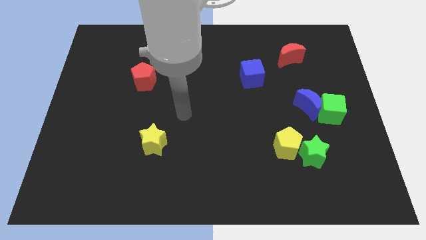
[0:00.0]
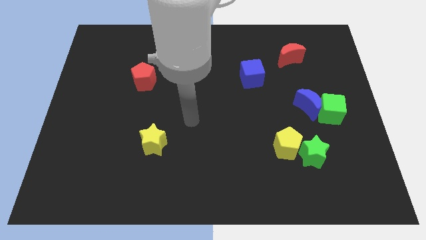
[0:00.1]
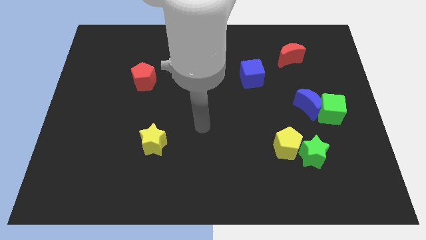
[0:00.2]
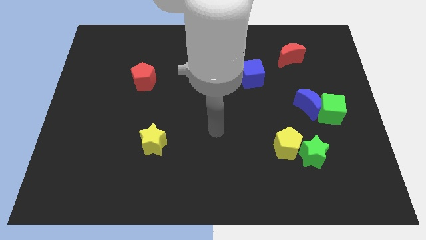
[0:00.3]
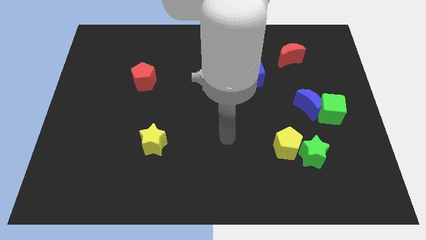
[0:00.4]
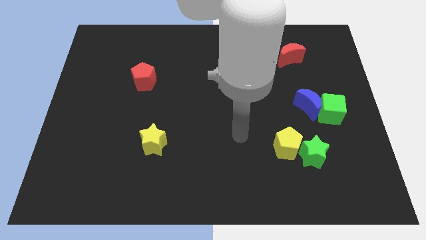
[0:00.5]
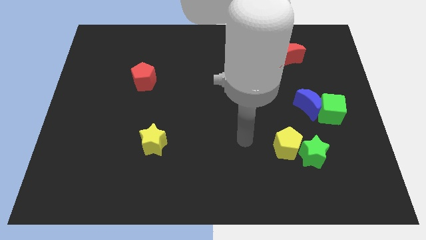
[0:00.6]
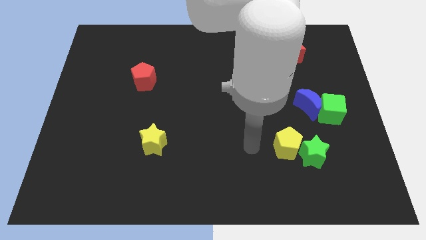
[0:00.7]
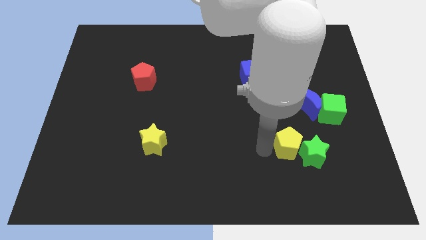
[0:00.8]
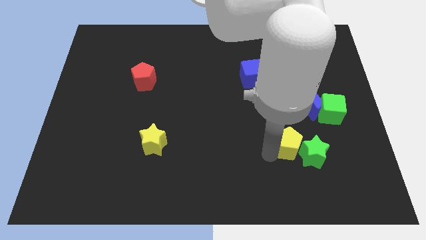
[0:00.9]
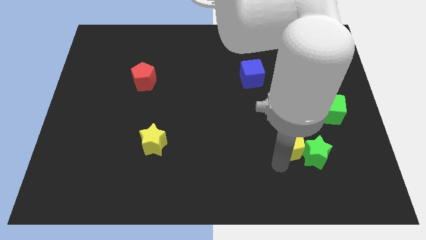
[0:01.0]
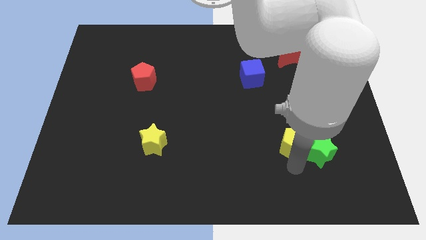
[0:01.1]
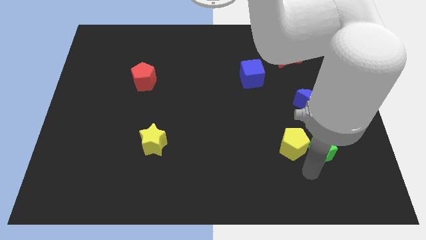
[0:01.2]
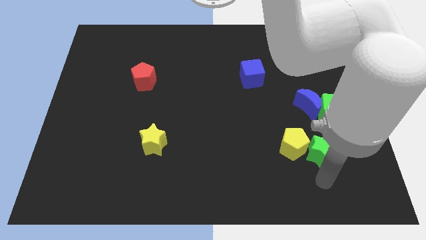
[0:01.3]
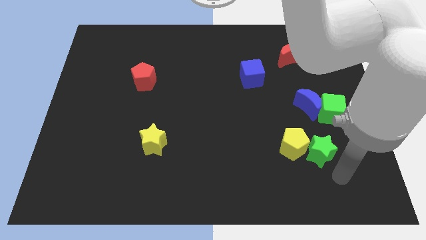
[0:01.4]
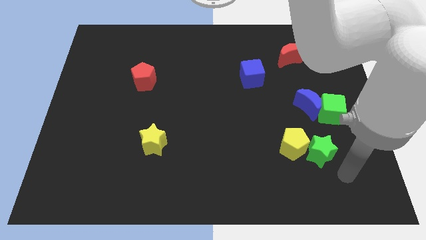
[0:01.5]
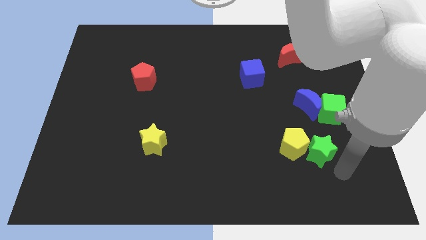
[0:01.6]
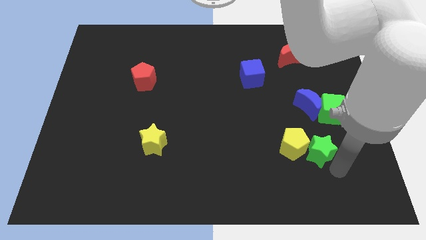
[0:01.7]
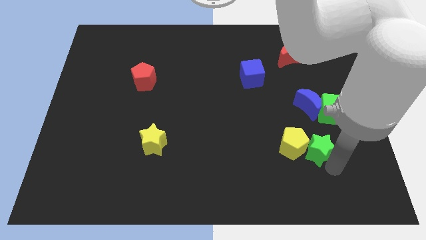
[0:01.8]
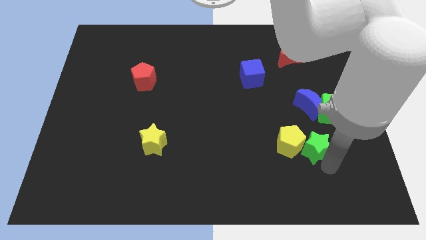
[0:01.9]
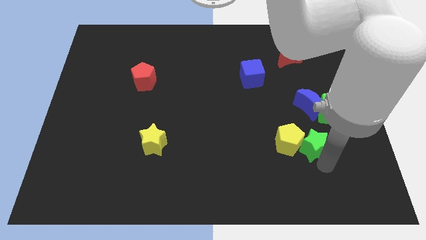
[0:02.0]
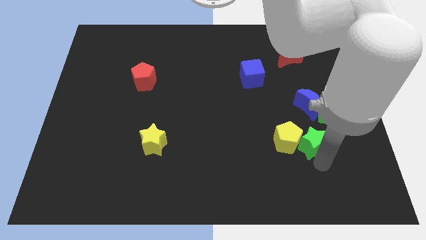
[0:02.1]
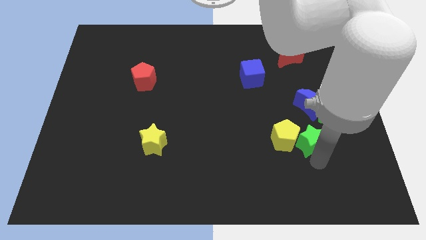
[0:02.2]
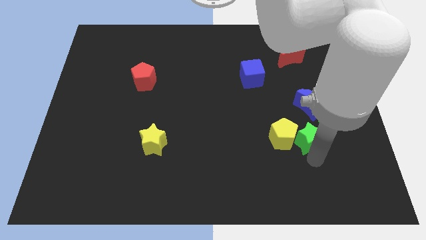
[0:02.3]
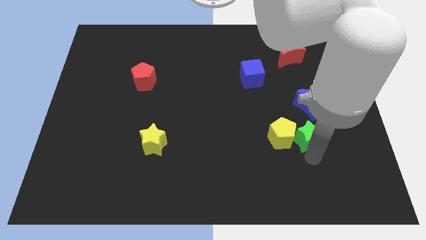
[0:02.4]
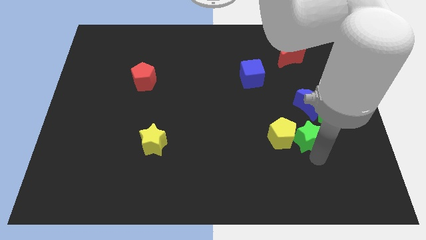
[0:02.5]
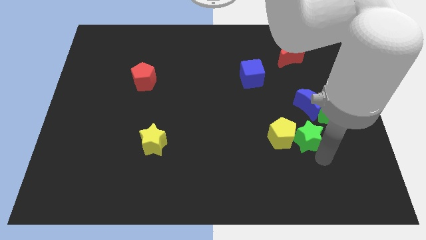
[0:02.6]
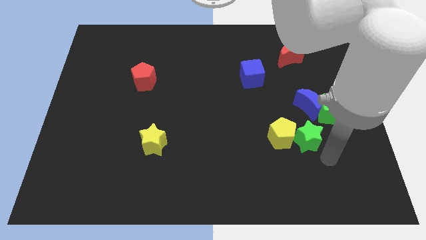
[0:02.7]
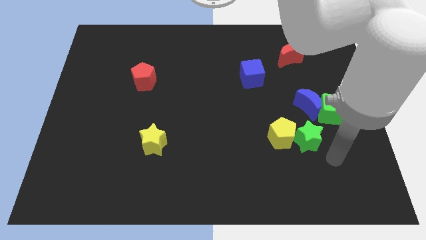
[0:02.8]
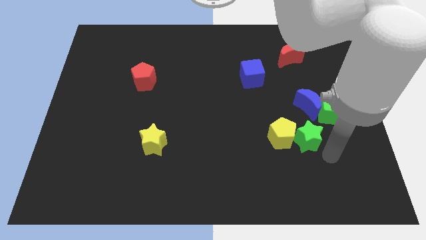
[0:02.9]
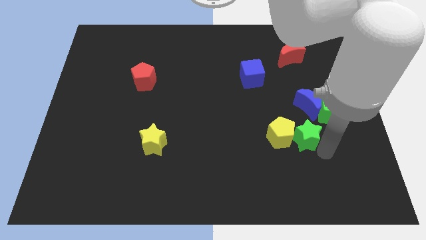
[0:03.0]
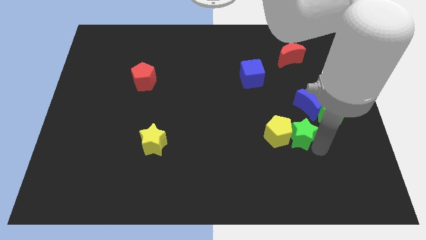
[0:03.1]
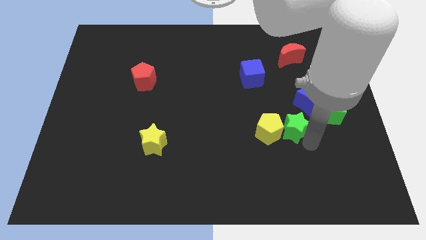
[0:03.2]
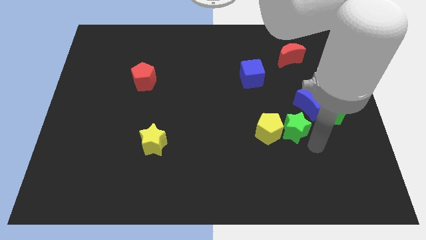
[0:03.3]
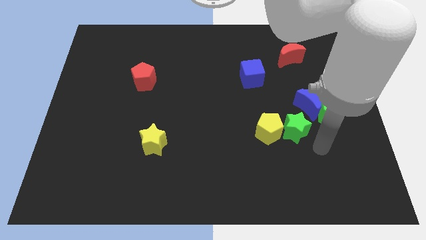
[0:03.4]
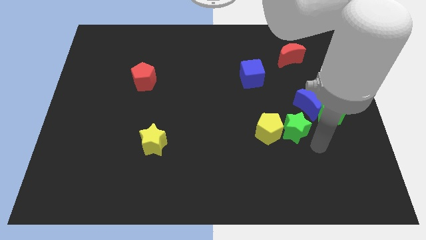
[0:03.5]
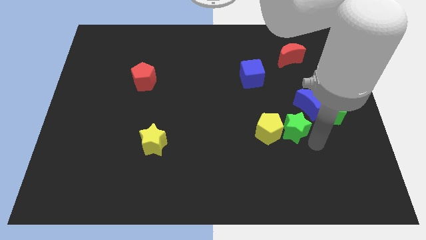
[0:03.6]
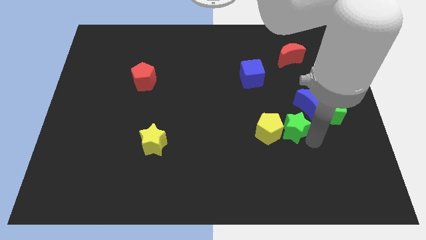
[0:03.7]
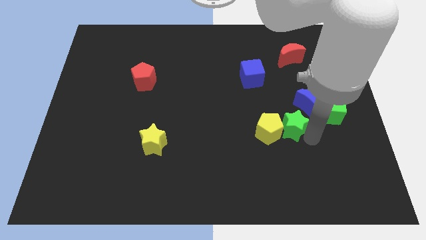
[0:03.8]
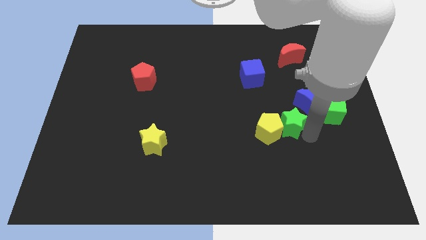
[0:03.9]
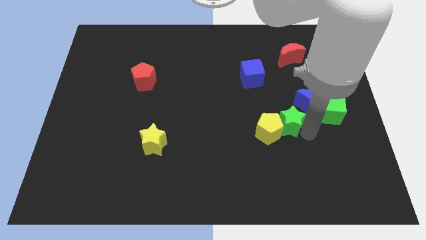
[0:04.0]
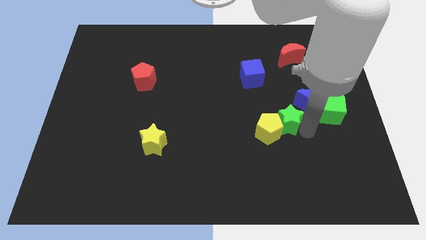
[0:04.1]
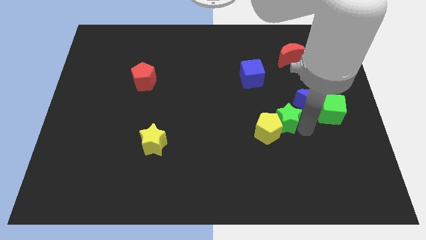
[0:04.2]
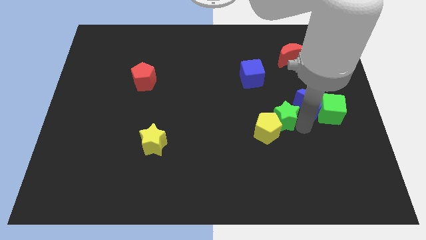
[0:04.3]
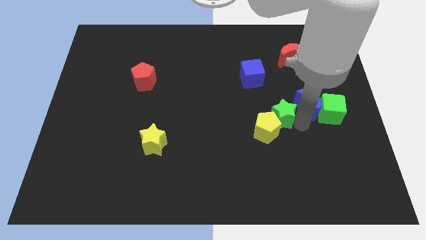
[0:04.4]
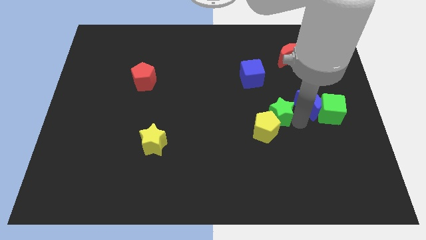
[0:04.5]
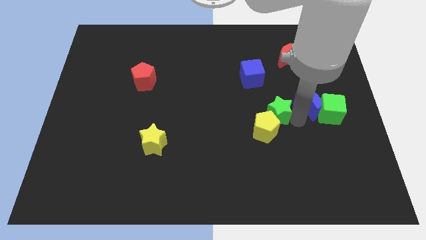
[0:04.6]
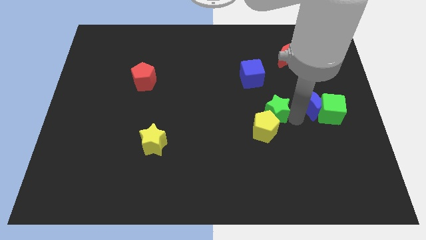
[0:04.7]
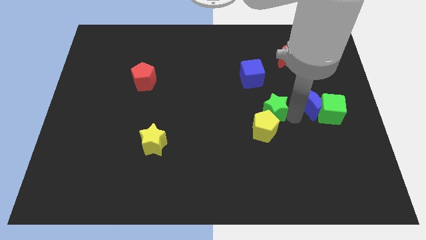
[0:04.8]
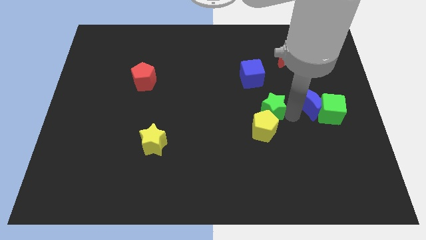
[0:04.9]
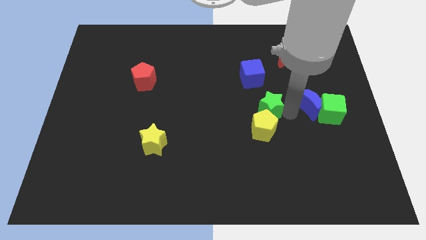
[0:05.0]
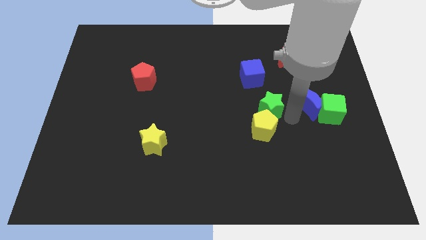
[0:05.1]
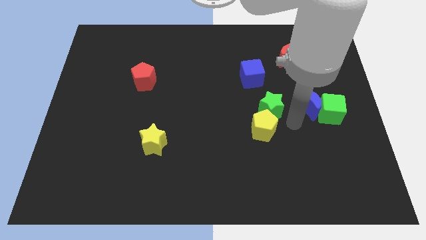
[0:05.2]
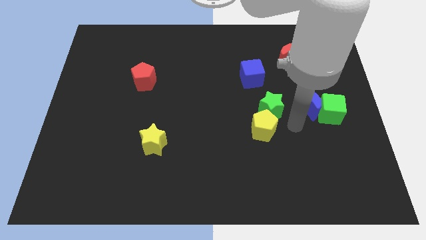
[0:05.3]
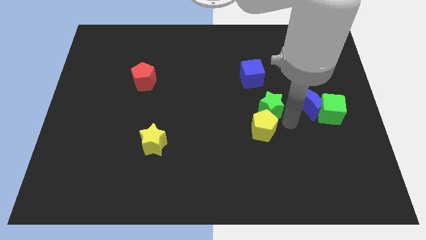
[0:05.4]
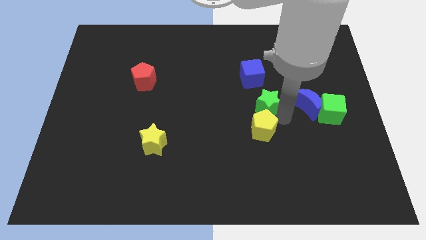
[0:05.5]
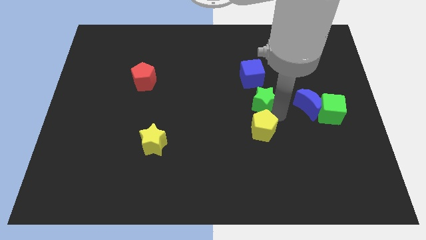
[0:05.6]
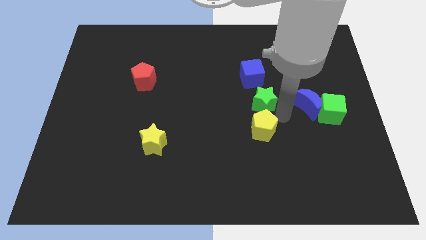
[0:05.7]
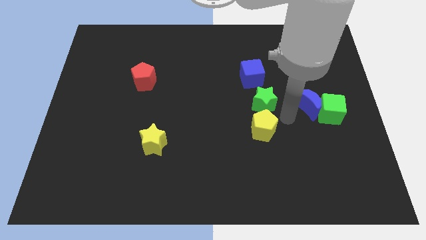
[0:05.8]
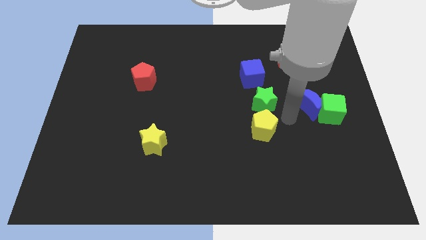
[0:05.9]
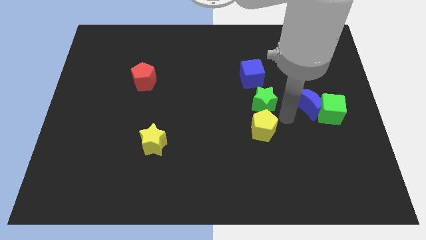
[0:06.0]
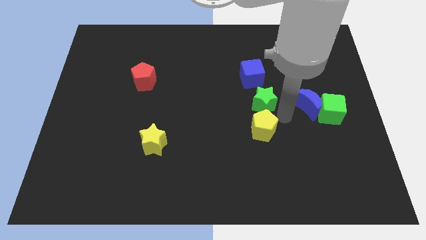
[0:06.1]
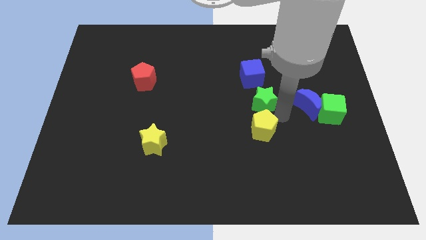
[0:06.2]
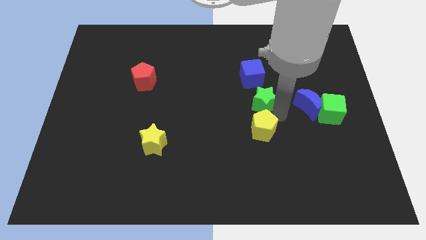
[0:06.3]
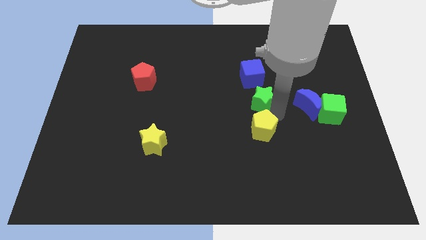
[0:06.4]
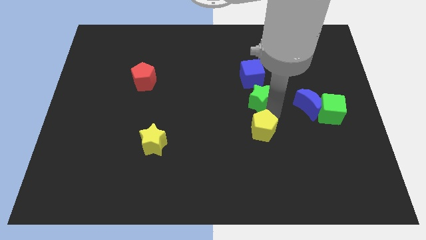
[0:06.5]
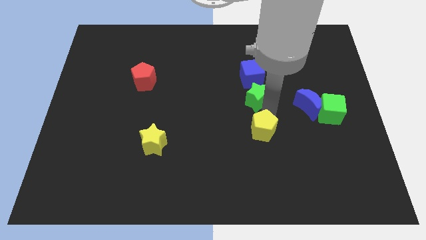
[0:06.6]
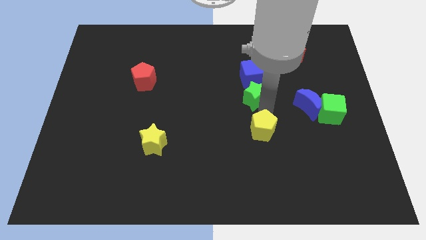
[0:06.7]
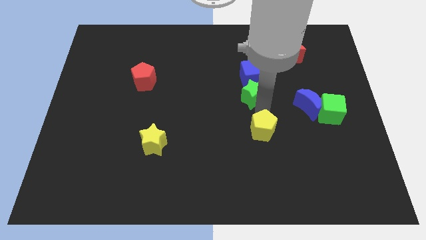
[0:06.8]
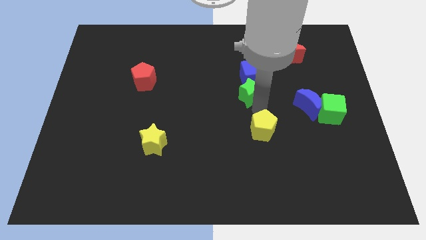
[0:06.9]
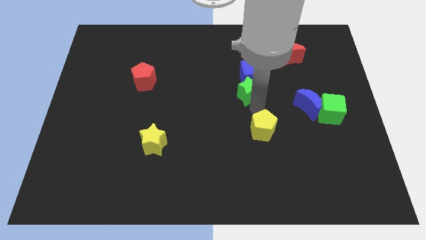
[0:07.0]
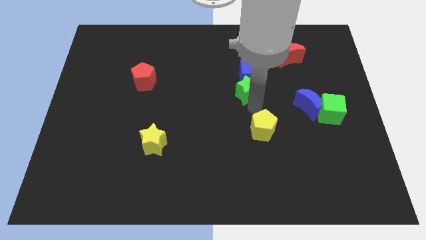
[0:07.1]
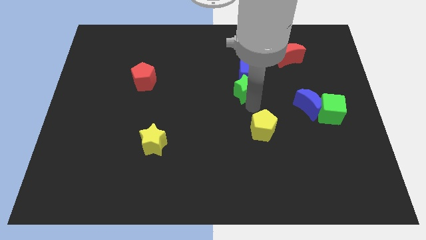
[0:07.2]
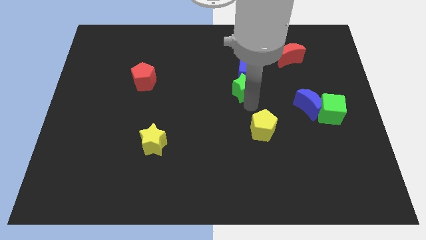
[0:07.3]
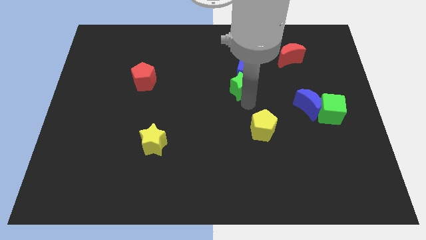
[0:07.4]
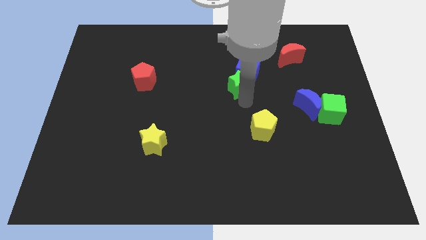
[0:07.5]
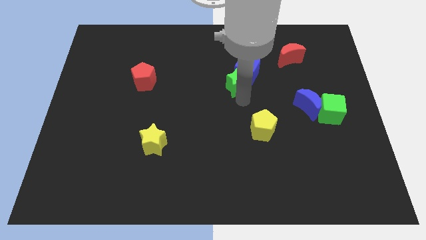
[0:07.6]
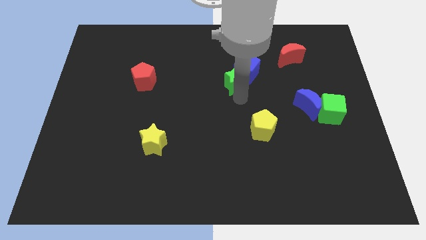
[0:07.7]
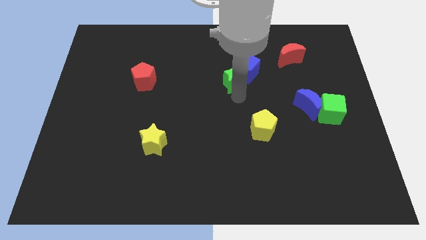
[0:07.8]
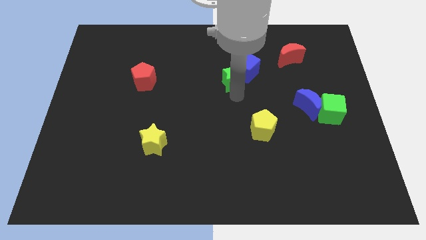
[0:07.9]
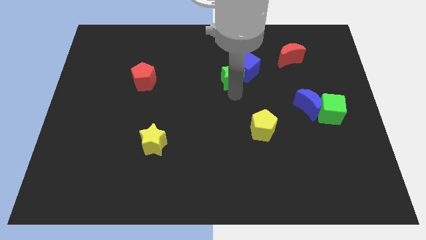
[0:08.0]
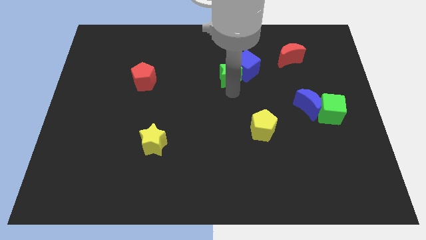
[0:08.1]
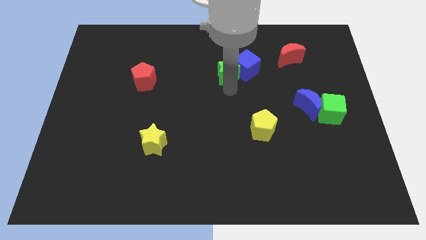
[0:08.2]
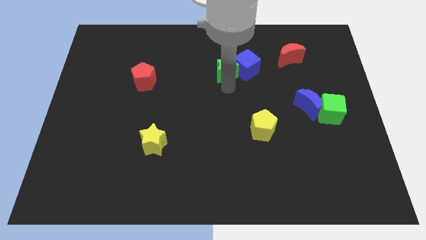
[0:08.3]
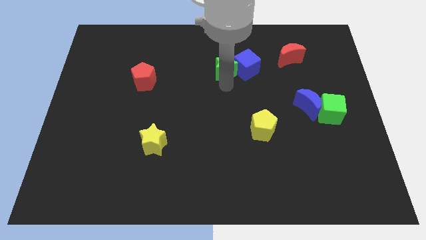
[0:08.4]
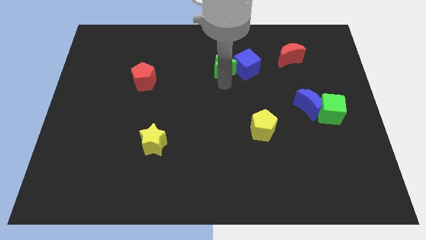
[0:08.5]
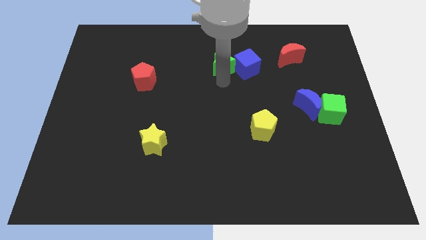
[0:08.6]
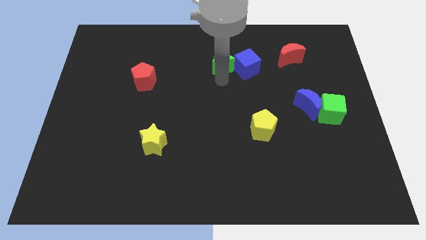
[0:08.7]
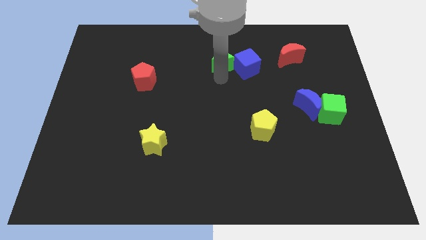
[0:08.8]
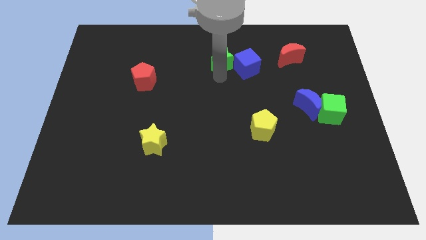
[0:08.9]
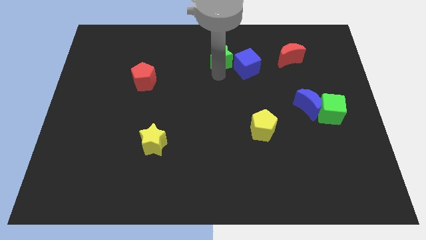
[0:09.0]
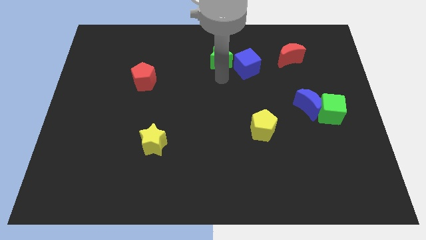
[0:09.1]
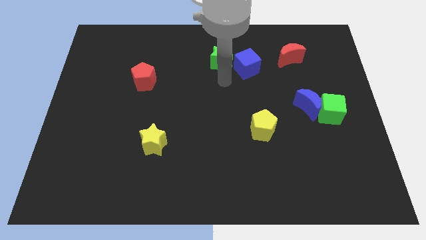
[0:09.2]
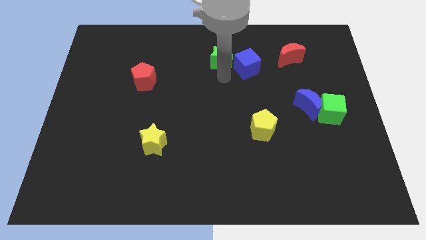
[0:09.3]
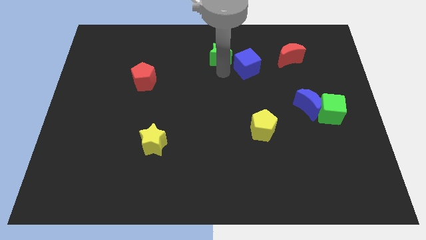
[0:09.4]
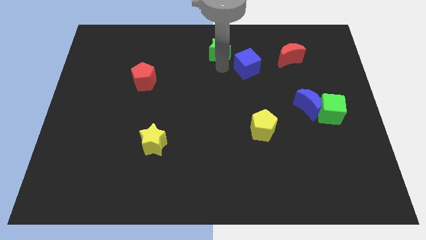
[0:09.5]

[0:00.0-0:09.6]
slide the green star to the towards your base
